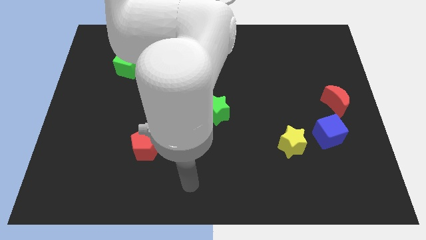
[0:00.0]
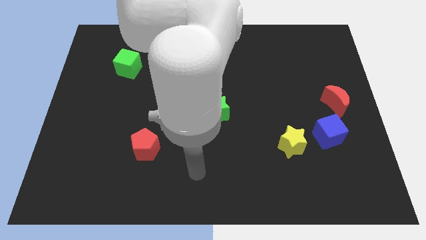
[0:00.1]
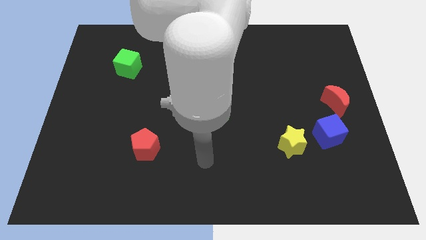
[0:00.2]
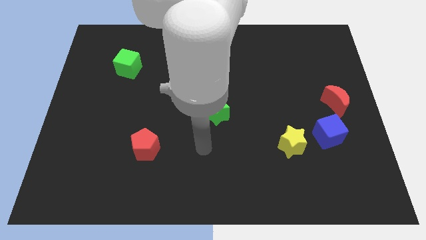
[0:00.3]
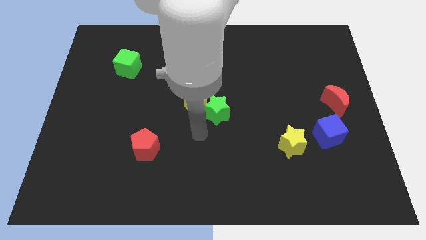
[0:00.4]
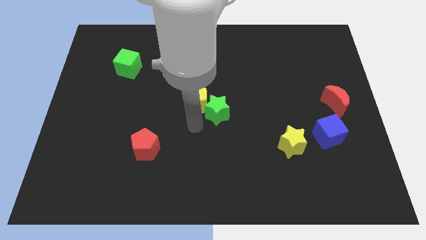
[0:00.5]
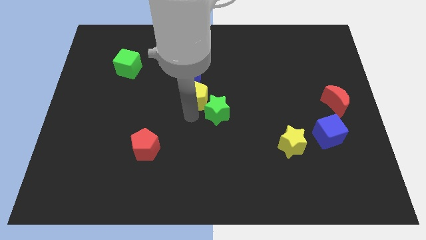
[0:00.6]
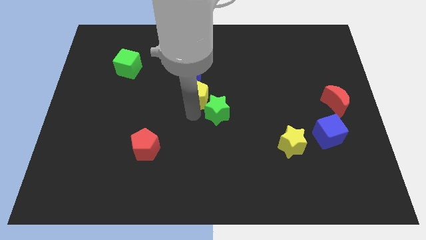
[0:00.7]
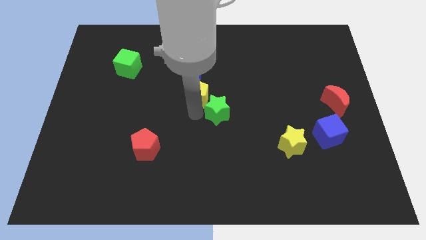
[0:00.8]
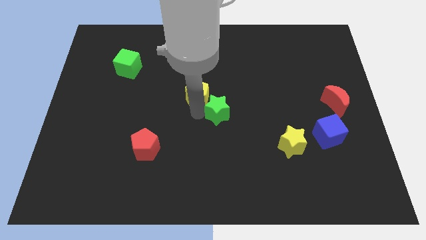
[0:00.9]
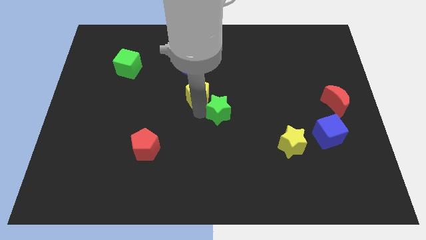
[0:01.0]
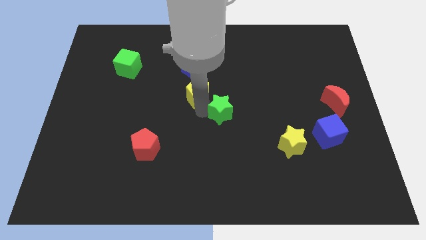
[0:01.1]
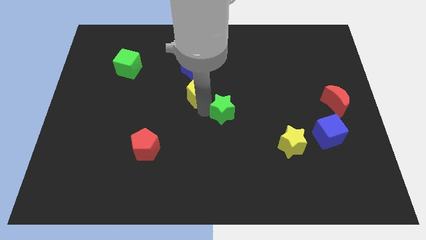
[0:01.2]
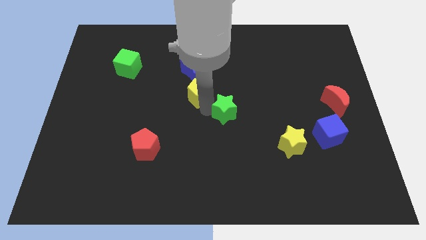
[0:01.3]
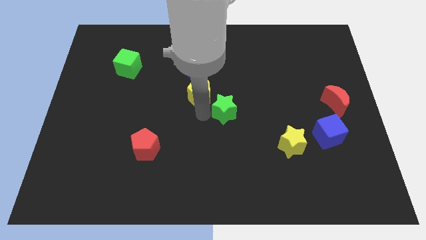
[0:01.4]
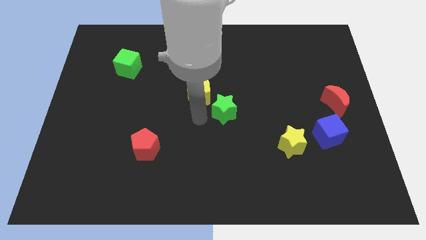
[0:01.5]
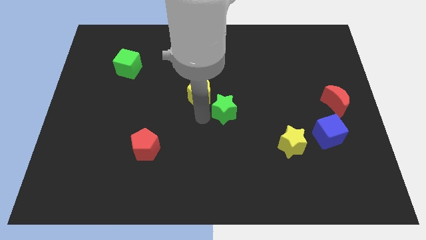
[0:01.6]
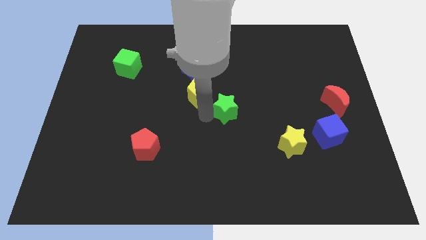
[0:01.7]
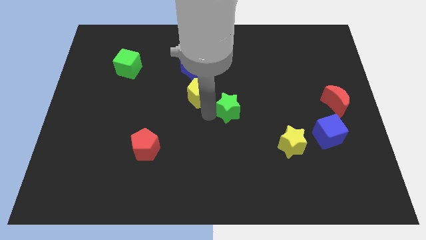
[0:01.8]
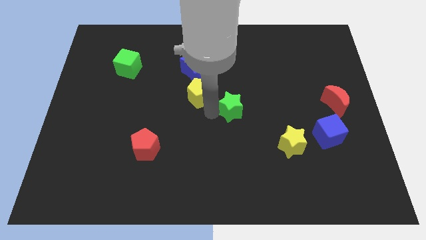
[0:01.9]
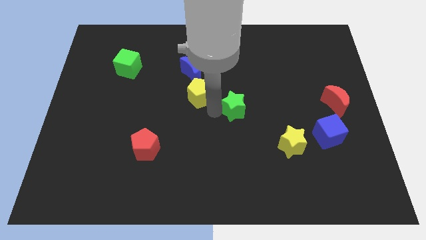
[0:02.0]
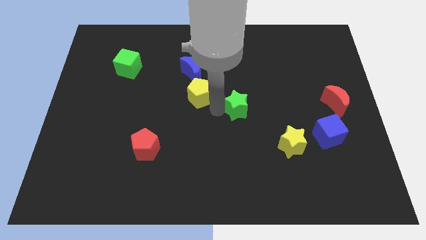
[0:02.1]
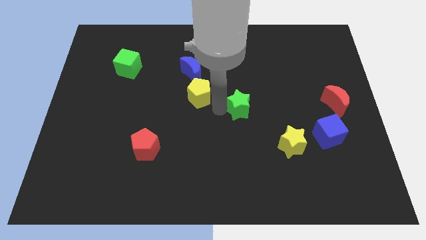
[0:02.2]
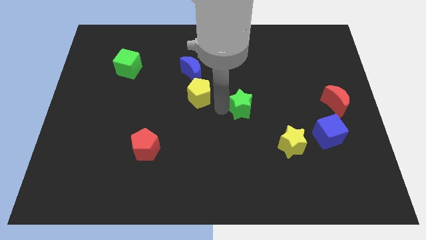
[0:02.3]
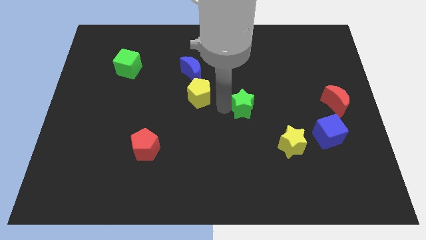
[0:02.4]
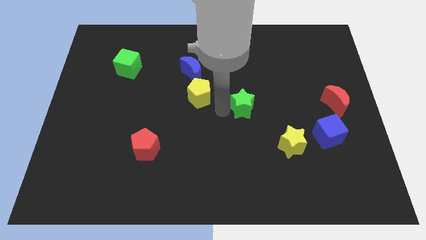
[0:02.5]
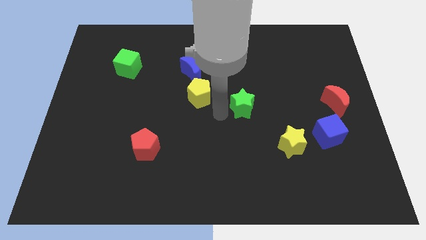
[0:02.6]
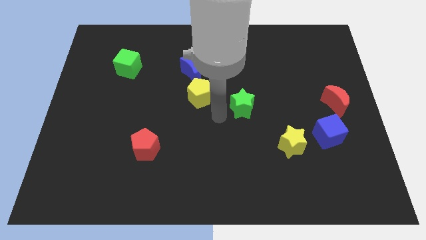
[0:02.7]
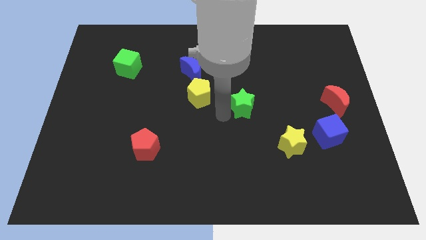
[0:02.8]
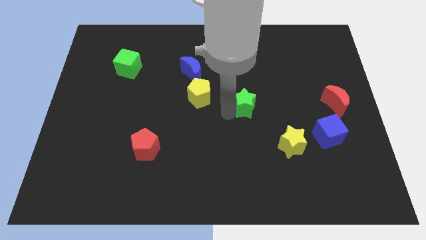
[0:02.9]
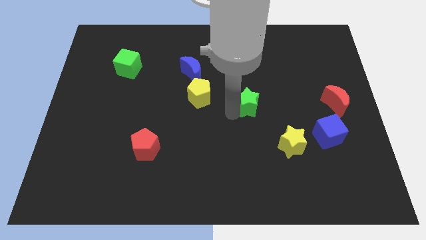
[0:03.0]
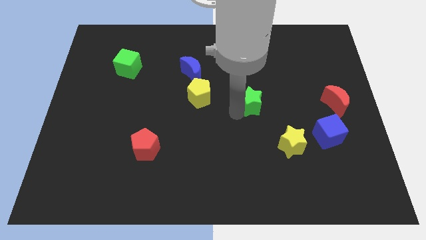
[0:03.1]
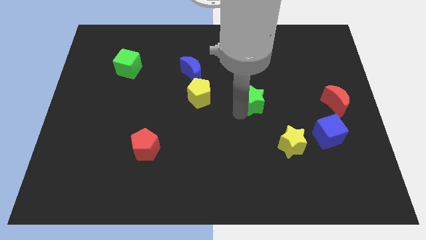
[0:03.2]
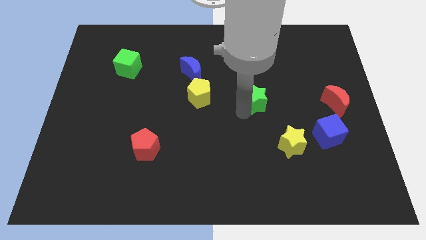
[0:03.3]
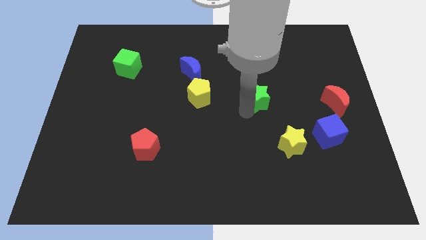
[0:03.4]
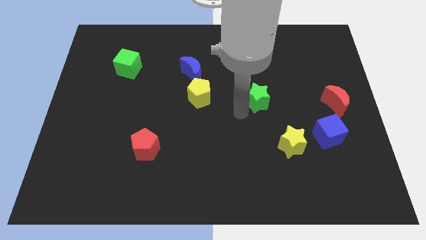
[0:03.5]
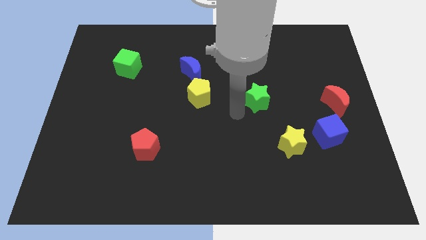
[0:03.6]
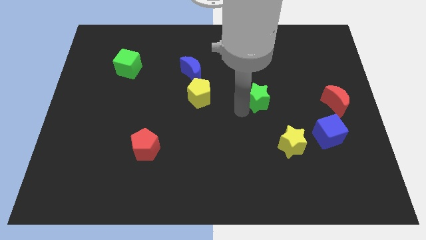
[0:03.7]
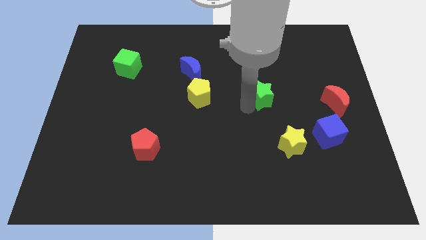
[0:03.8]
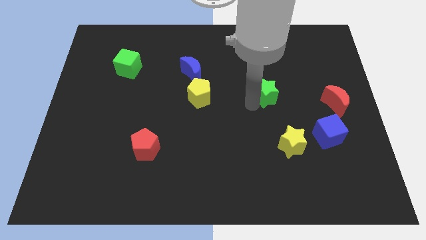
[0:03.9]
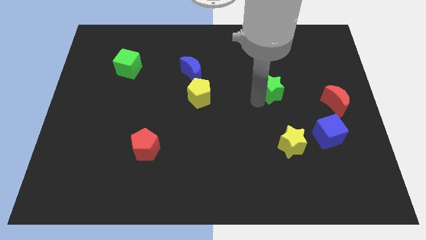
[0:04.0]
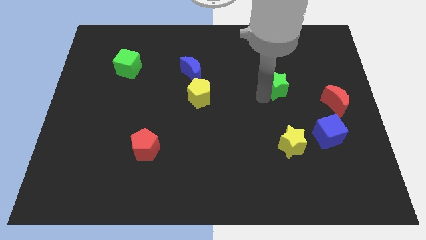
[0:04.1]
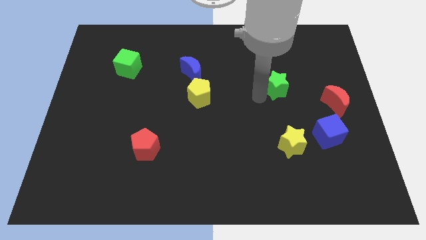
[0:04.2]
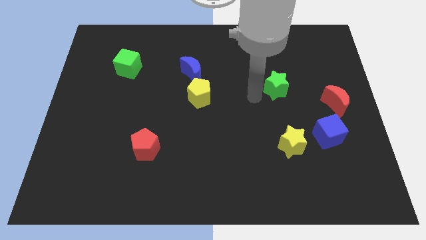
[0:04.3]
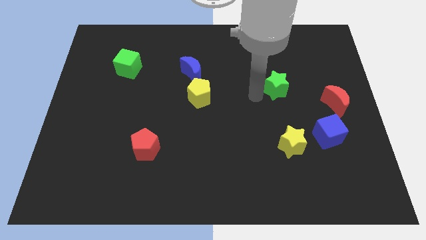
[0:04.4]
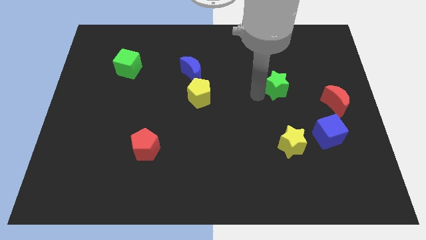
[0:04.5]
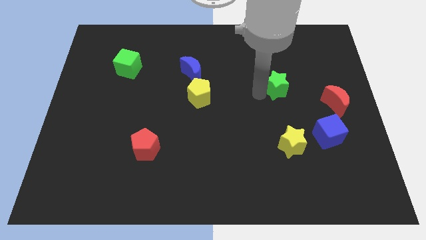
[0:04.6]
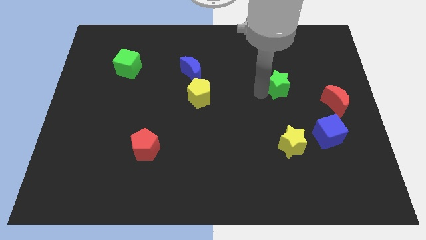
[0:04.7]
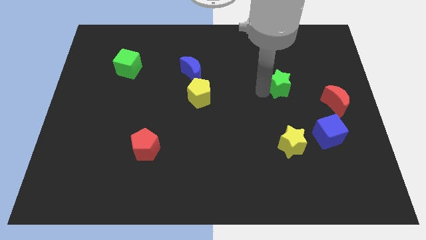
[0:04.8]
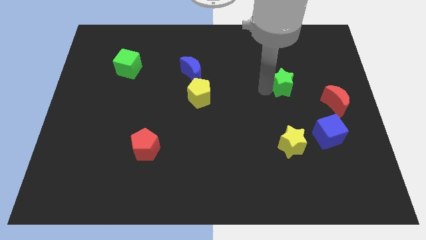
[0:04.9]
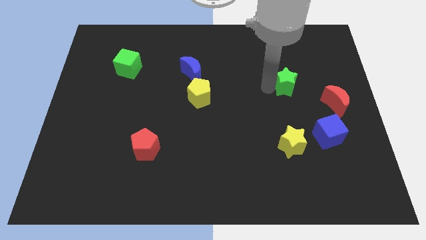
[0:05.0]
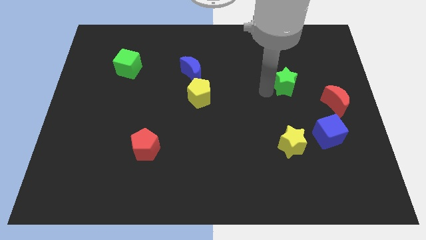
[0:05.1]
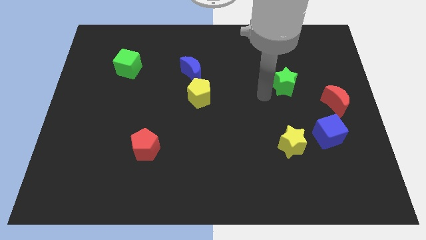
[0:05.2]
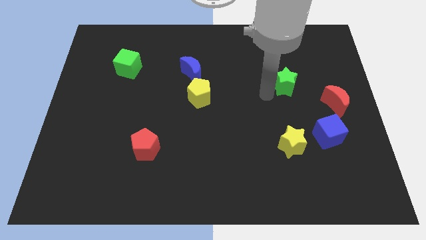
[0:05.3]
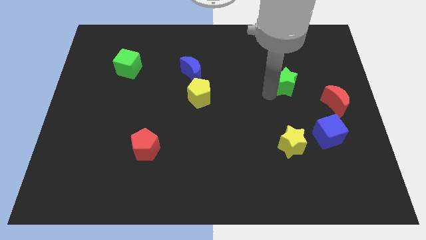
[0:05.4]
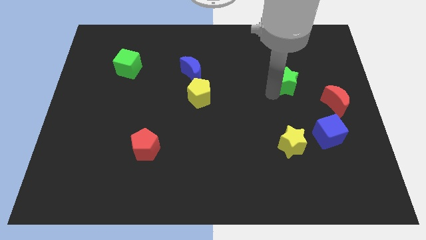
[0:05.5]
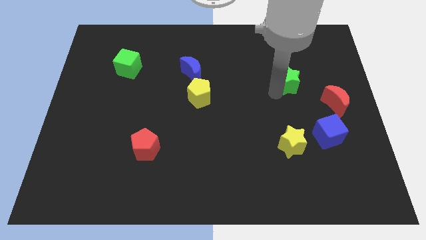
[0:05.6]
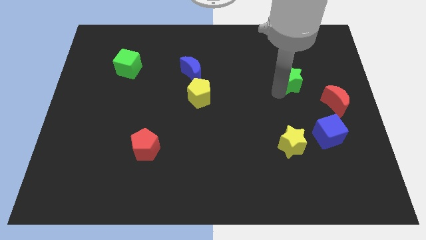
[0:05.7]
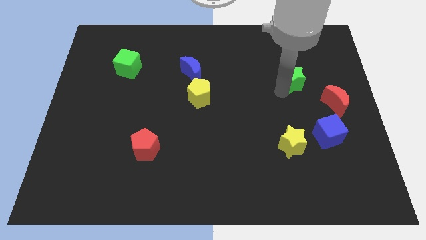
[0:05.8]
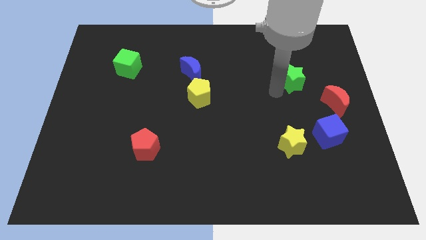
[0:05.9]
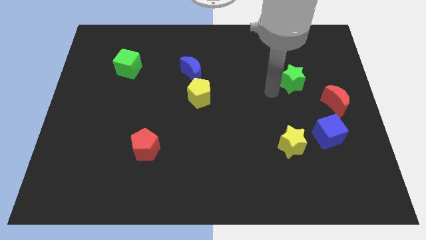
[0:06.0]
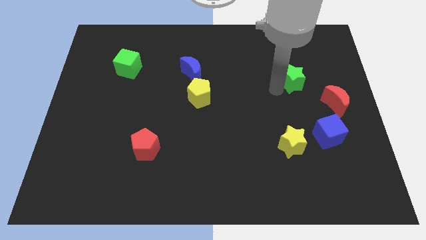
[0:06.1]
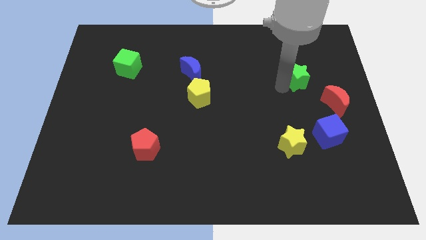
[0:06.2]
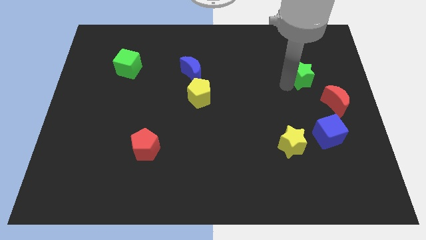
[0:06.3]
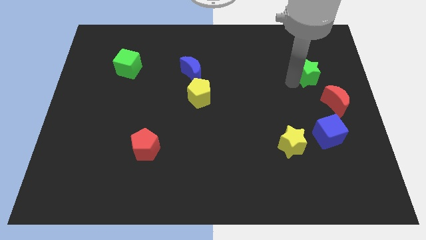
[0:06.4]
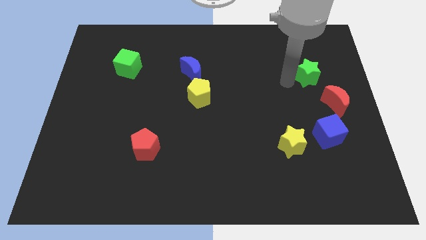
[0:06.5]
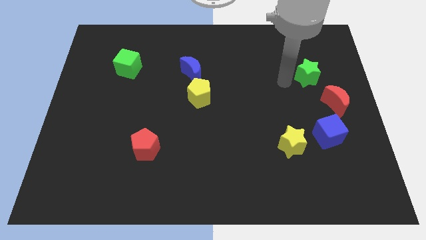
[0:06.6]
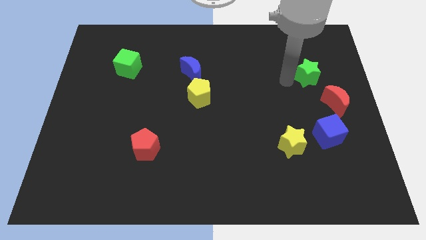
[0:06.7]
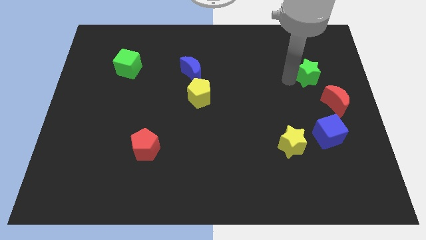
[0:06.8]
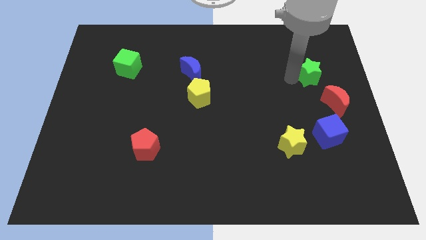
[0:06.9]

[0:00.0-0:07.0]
put the green star to the top of the red moon
